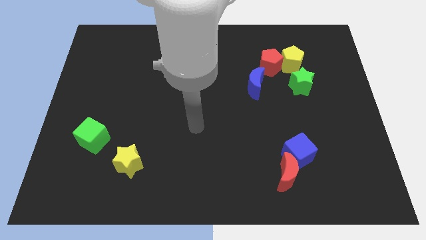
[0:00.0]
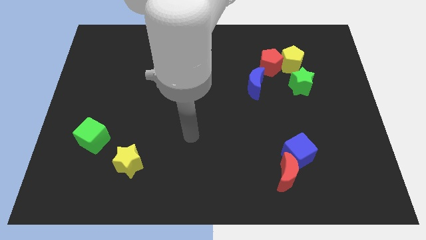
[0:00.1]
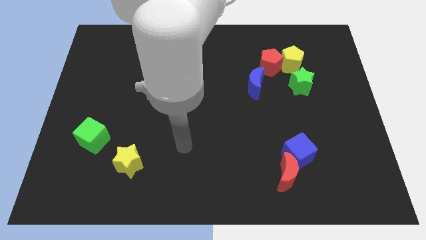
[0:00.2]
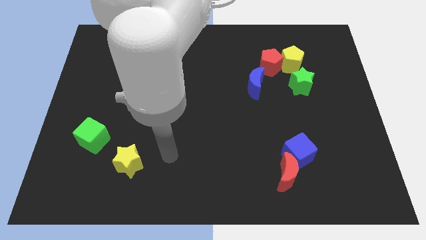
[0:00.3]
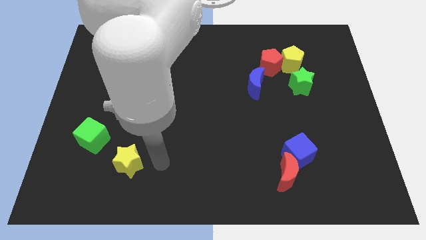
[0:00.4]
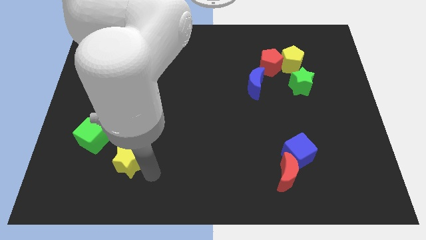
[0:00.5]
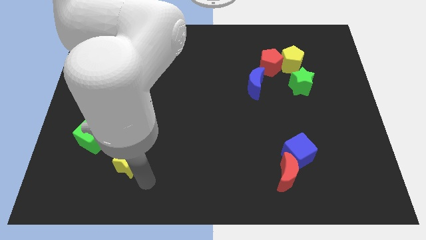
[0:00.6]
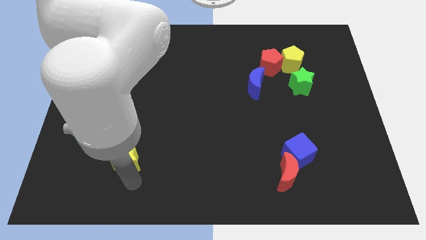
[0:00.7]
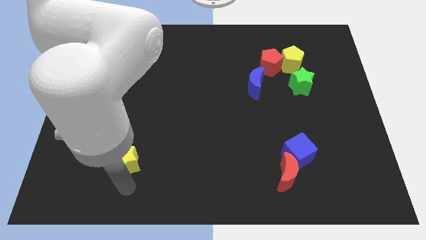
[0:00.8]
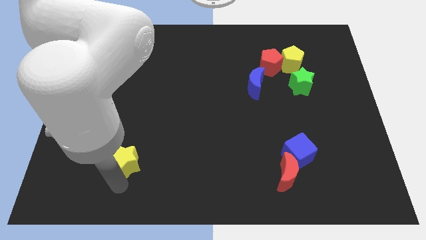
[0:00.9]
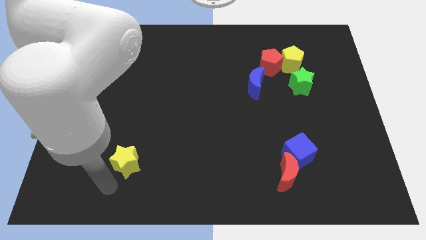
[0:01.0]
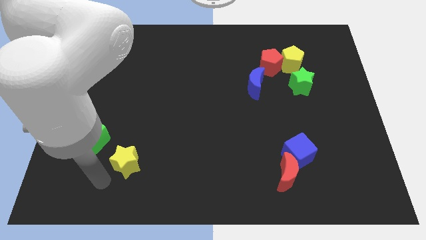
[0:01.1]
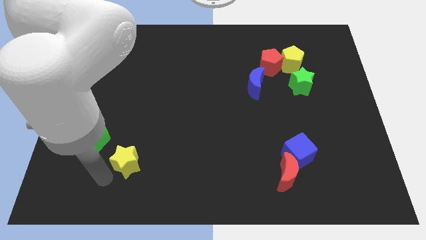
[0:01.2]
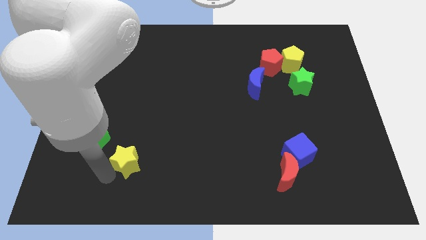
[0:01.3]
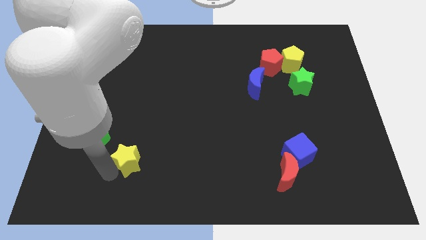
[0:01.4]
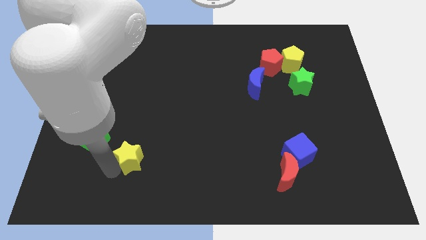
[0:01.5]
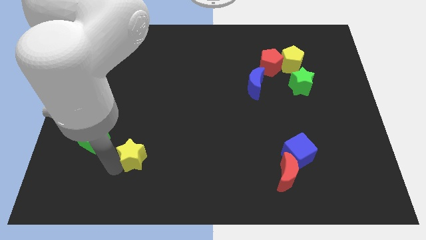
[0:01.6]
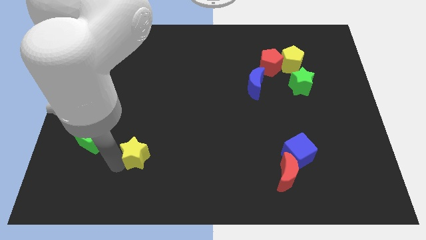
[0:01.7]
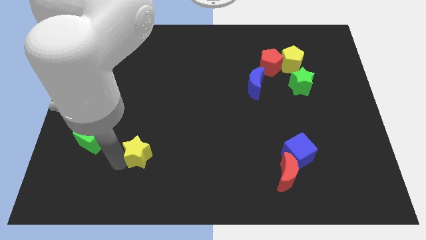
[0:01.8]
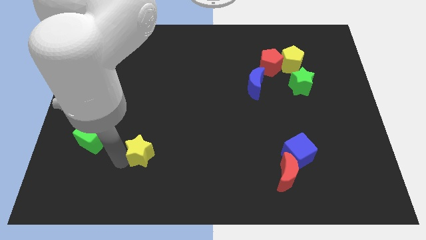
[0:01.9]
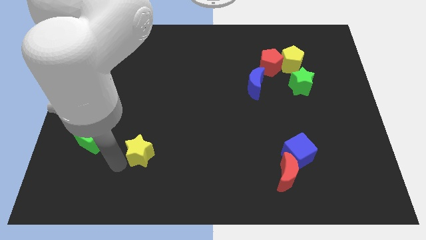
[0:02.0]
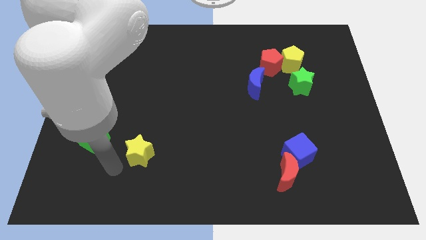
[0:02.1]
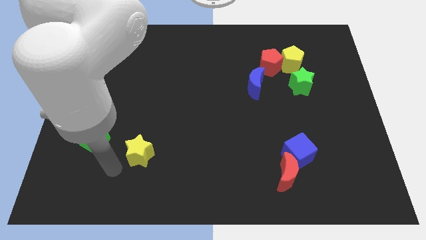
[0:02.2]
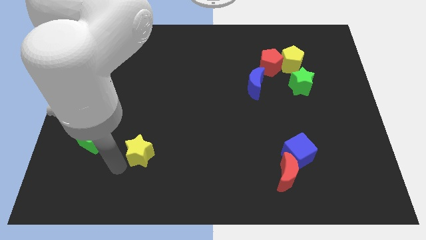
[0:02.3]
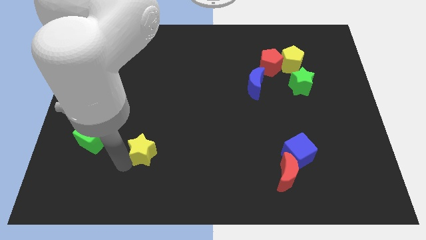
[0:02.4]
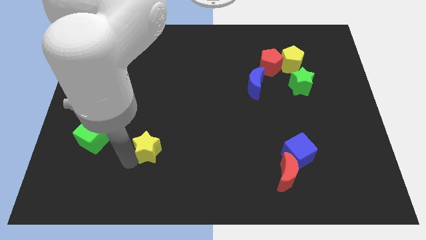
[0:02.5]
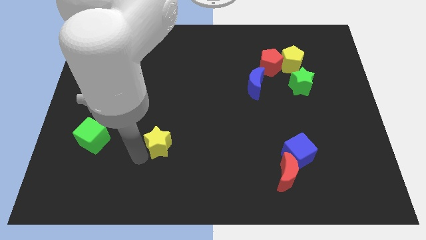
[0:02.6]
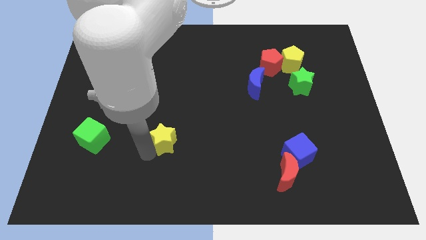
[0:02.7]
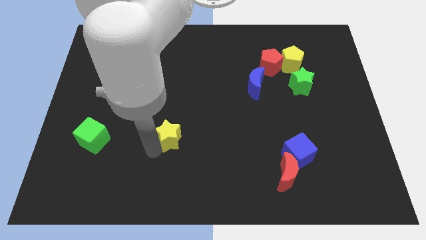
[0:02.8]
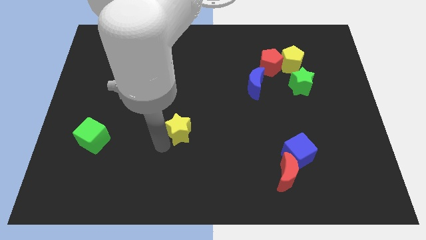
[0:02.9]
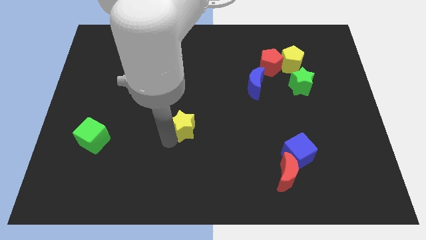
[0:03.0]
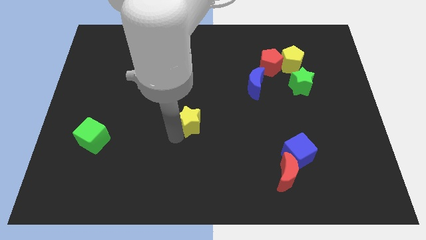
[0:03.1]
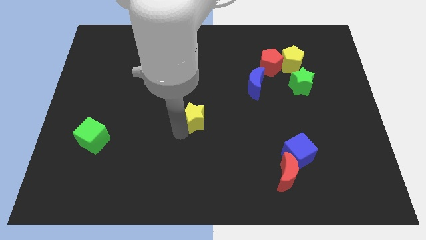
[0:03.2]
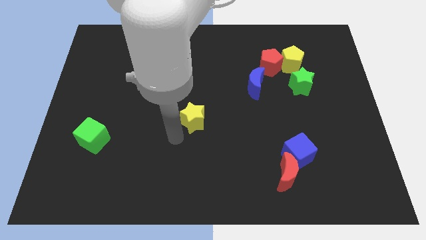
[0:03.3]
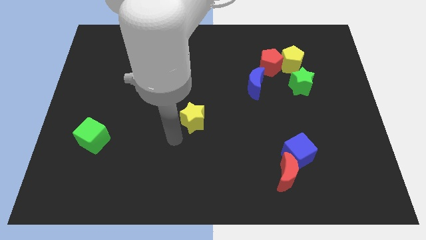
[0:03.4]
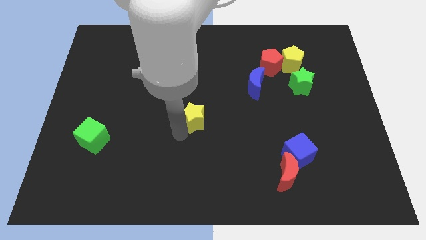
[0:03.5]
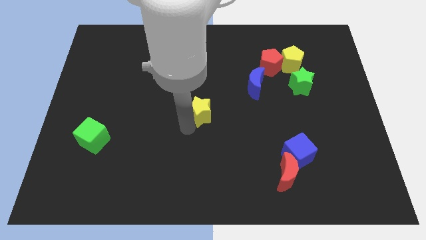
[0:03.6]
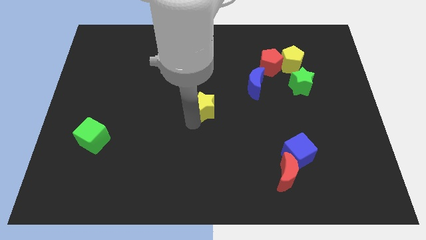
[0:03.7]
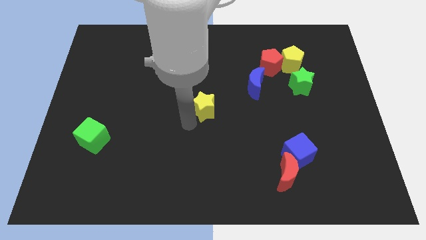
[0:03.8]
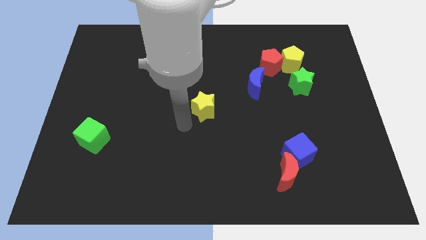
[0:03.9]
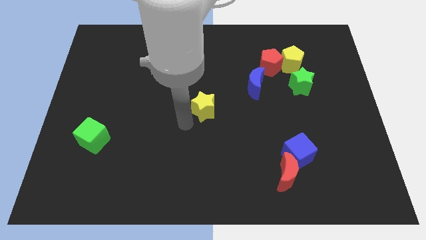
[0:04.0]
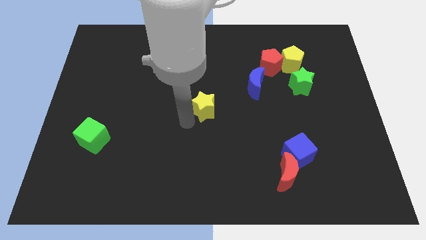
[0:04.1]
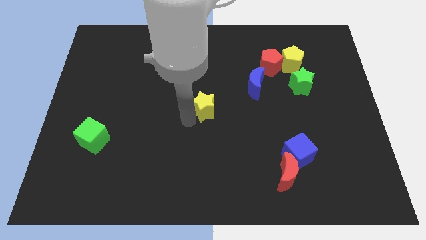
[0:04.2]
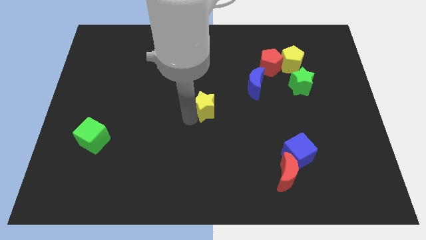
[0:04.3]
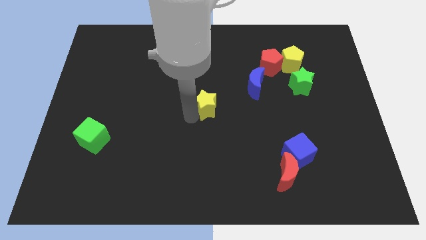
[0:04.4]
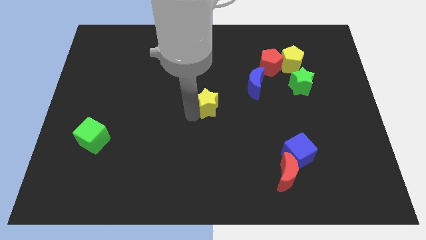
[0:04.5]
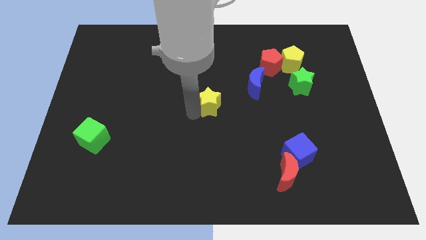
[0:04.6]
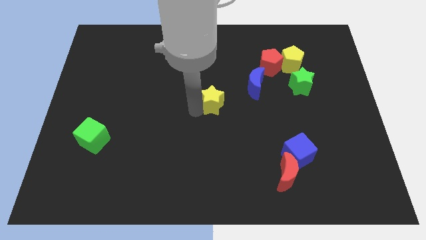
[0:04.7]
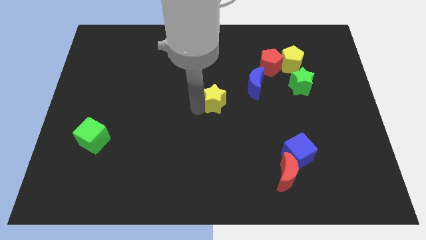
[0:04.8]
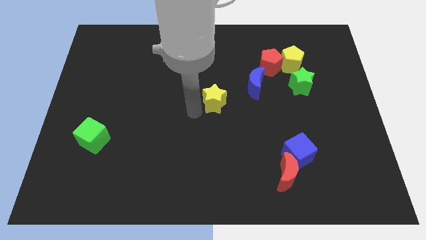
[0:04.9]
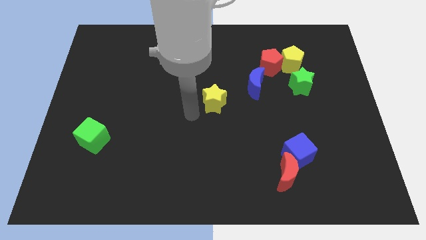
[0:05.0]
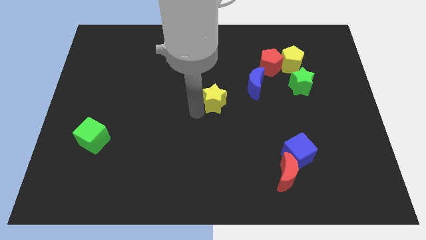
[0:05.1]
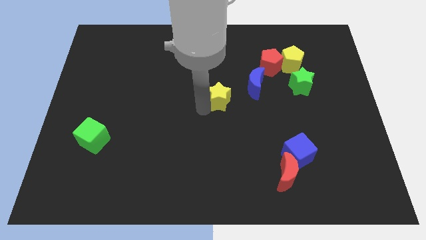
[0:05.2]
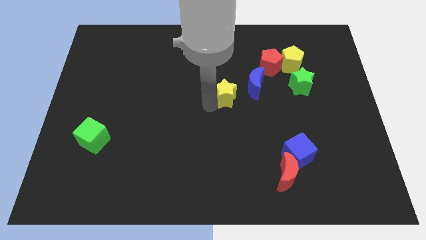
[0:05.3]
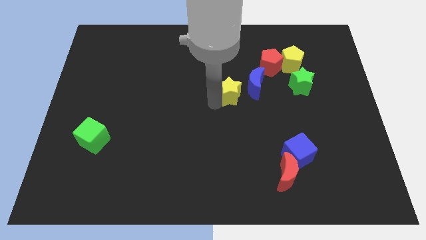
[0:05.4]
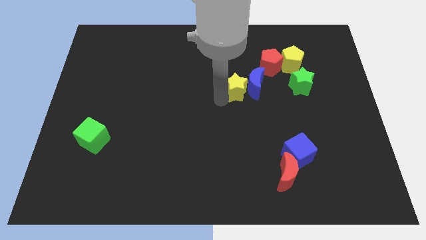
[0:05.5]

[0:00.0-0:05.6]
move the yellow star close to the blue moon

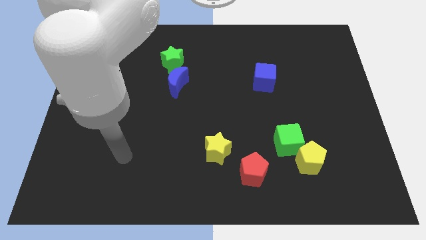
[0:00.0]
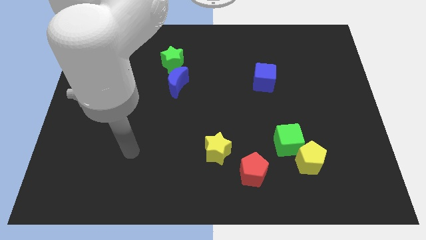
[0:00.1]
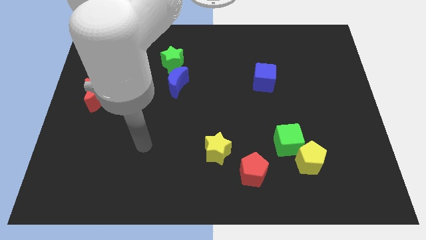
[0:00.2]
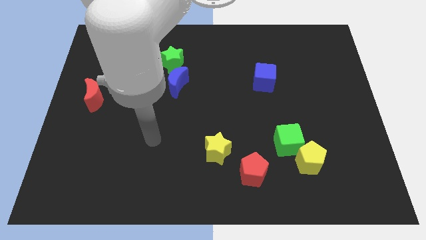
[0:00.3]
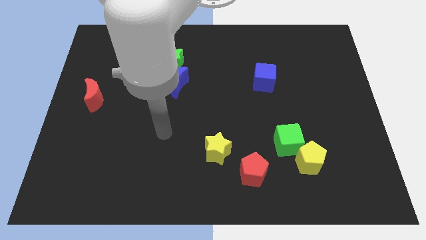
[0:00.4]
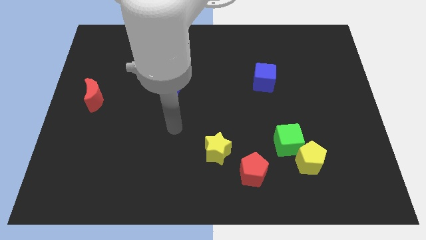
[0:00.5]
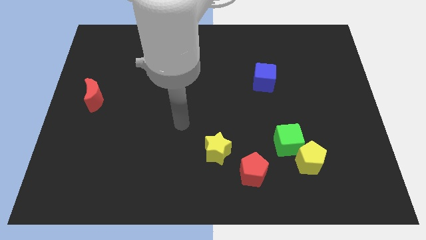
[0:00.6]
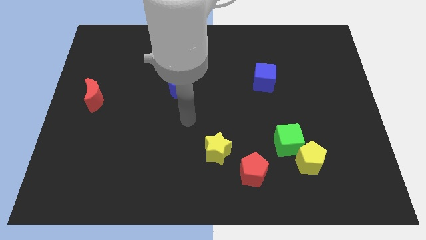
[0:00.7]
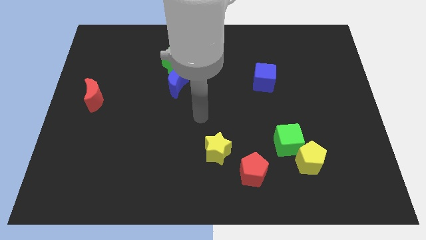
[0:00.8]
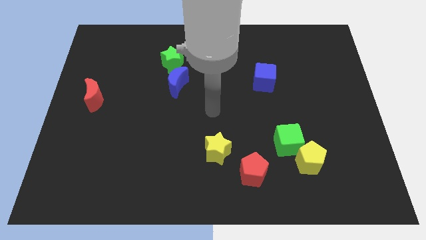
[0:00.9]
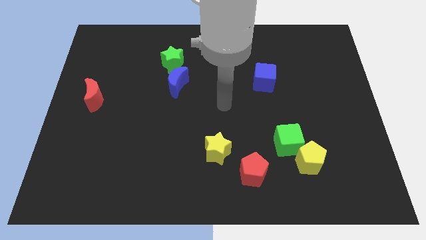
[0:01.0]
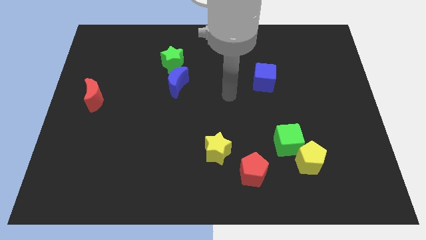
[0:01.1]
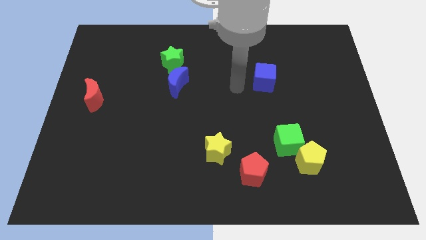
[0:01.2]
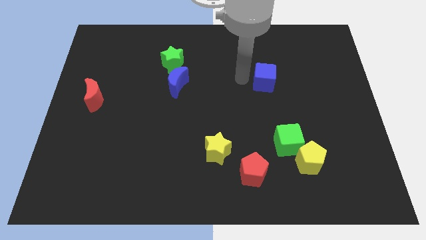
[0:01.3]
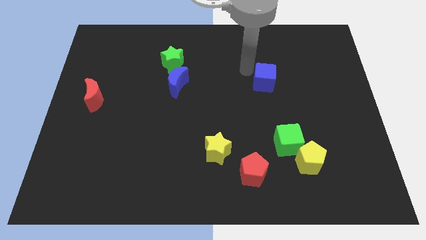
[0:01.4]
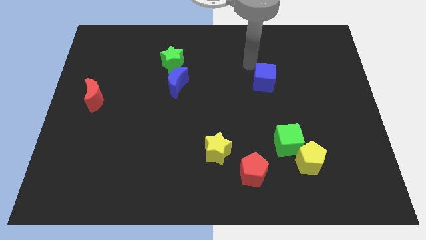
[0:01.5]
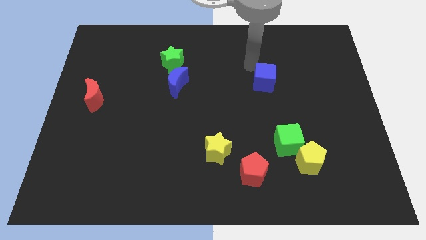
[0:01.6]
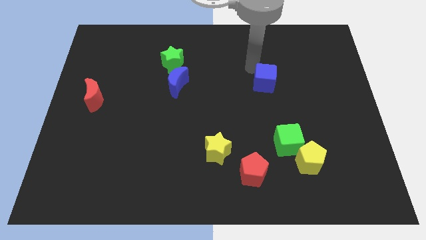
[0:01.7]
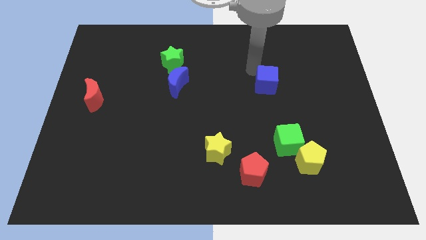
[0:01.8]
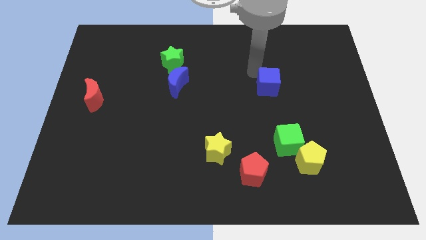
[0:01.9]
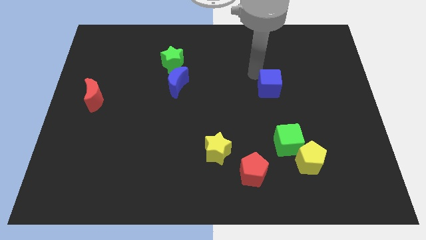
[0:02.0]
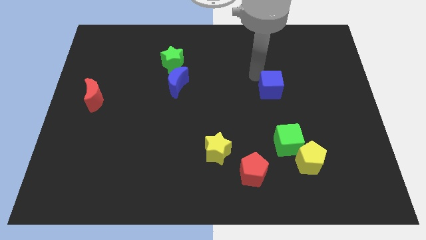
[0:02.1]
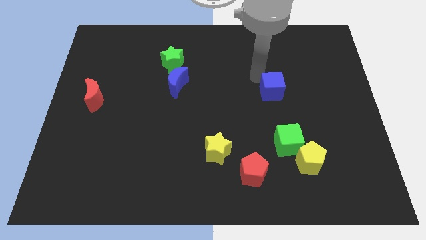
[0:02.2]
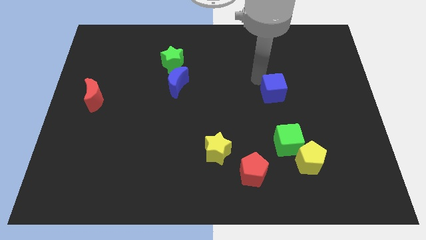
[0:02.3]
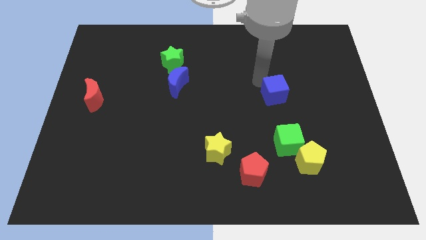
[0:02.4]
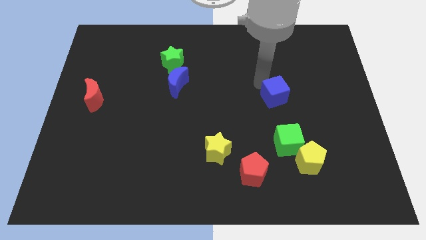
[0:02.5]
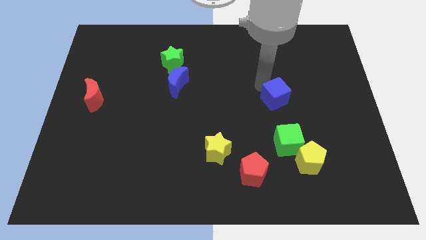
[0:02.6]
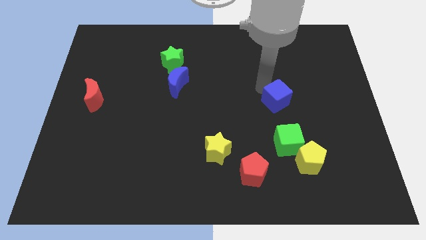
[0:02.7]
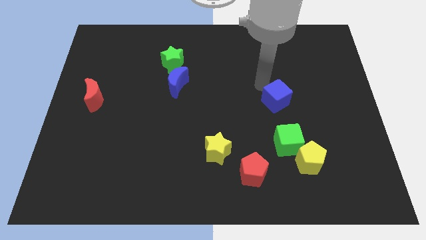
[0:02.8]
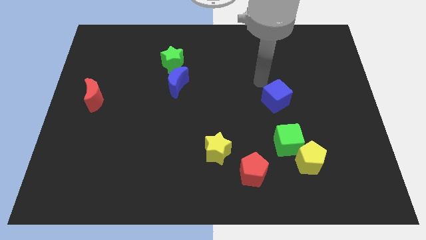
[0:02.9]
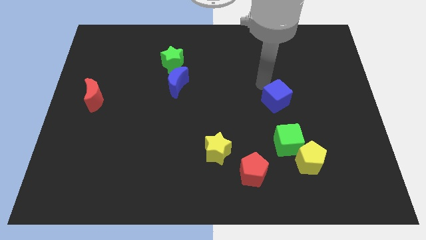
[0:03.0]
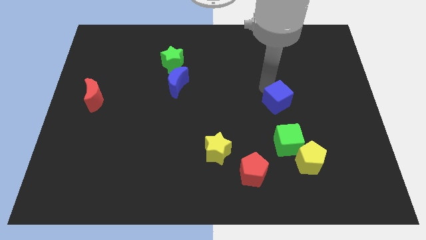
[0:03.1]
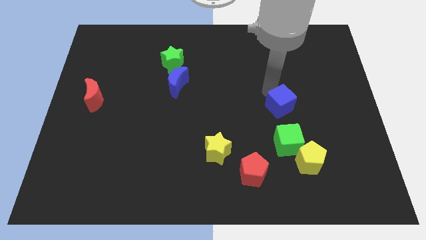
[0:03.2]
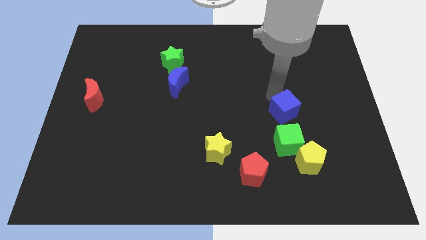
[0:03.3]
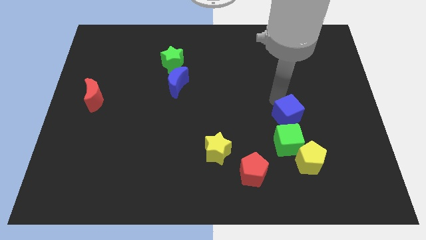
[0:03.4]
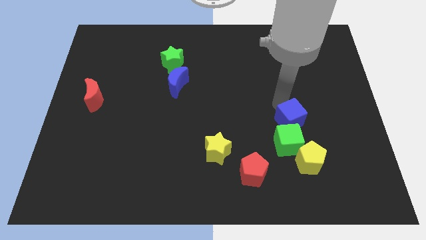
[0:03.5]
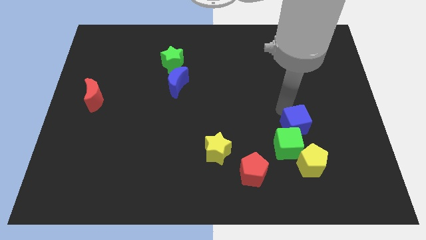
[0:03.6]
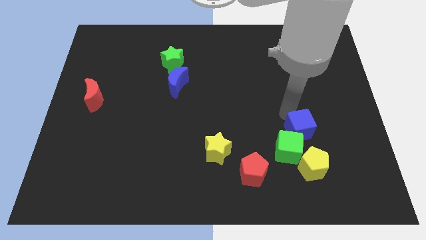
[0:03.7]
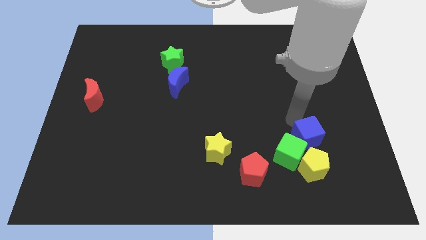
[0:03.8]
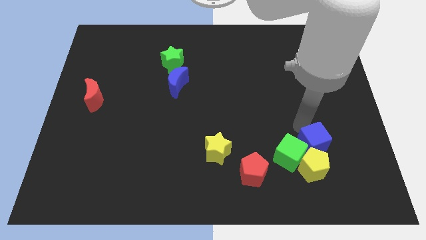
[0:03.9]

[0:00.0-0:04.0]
slide the blue cube next to the yellow pentagon
